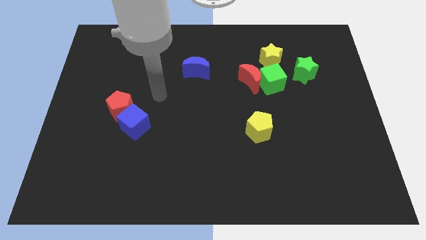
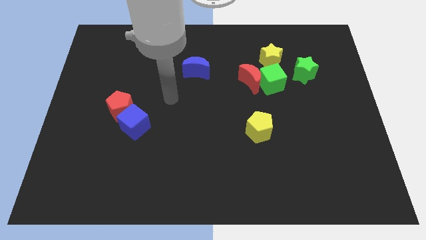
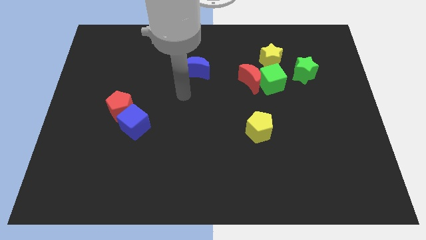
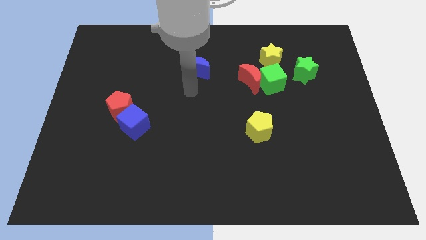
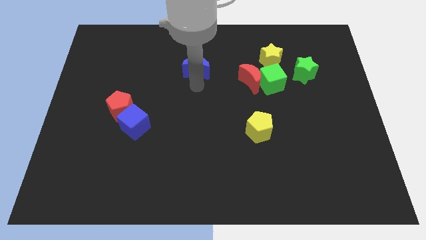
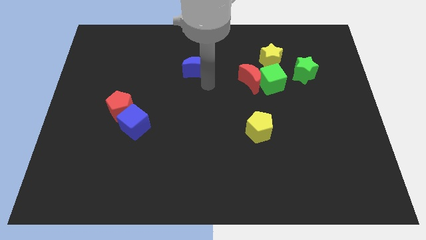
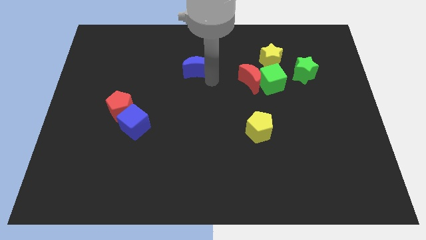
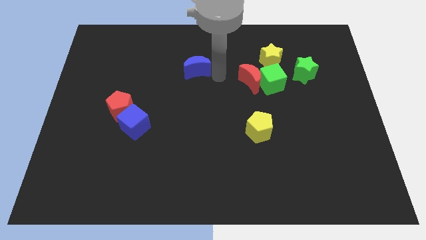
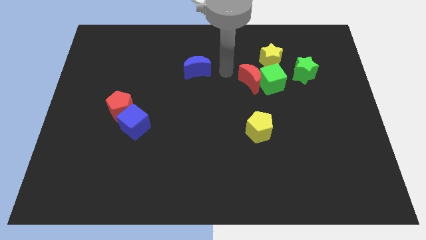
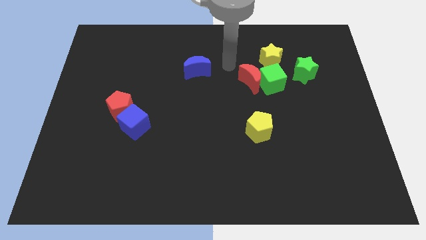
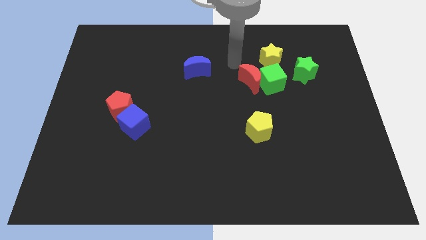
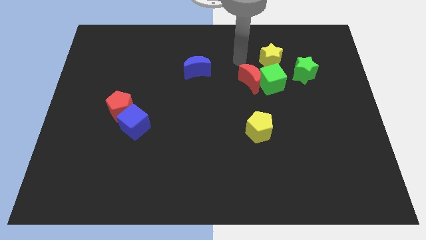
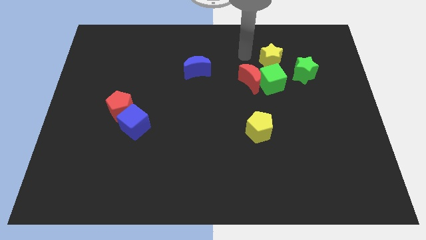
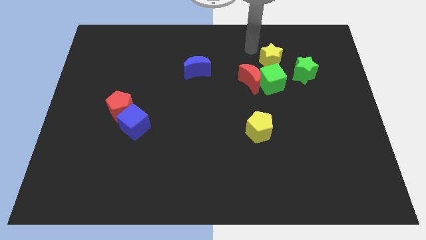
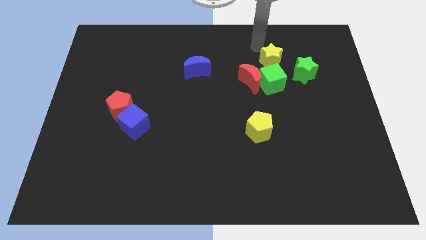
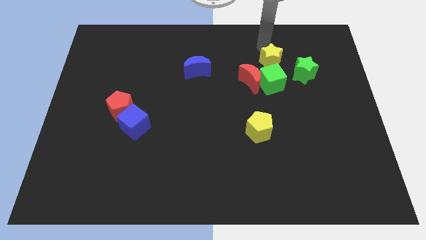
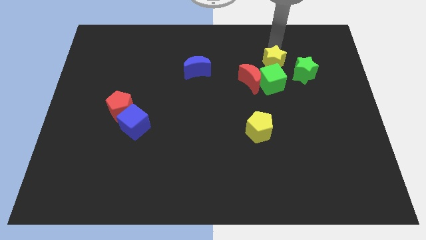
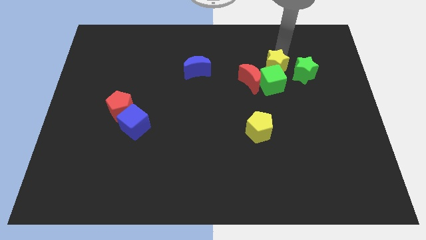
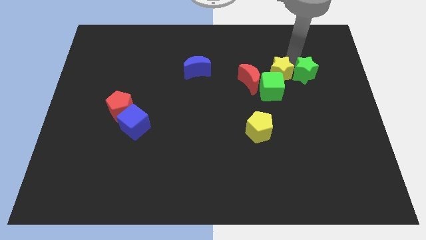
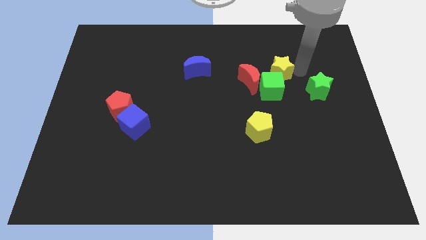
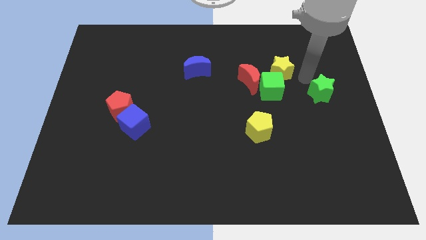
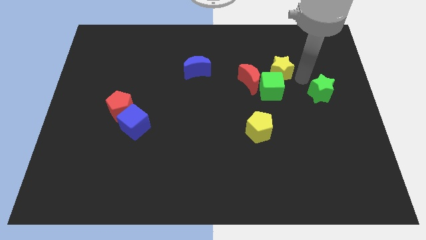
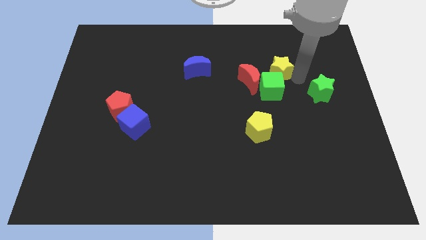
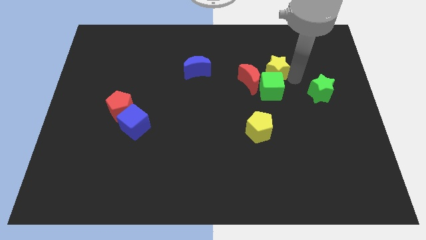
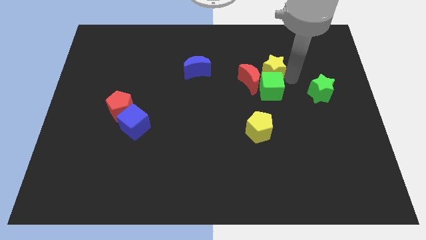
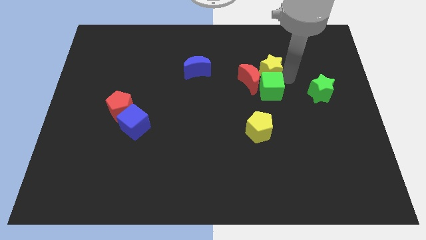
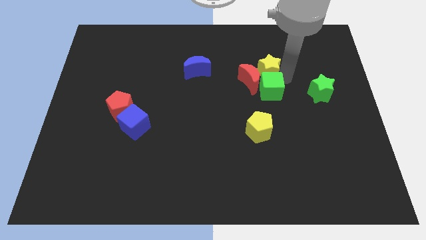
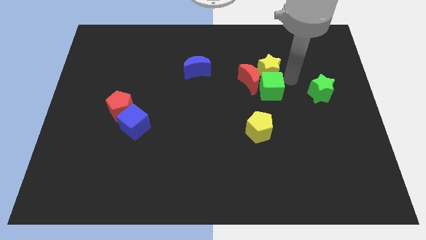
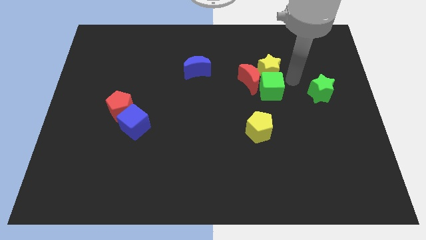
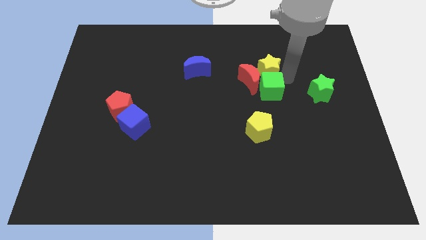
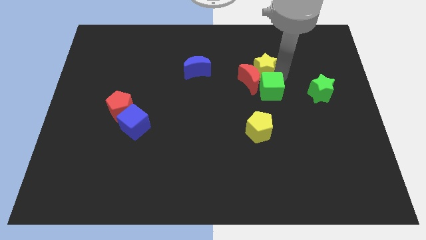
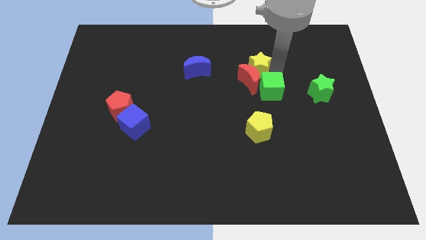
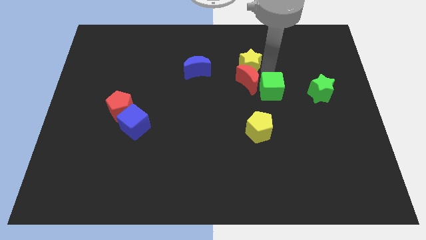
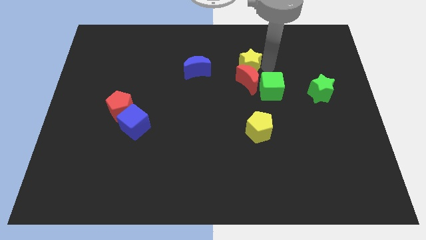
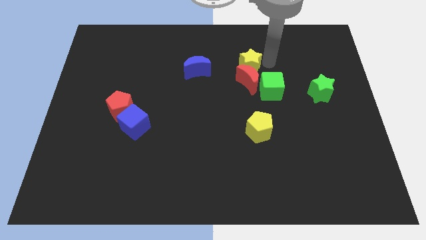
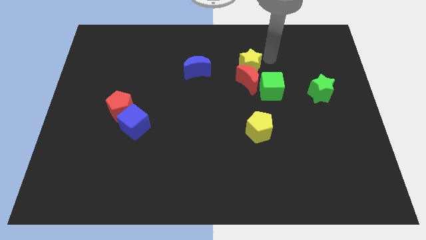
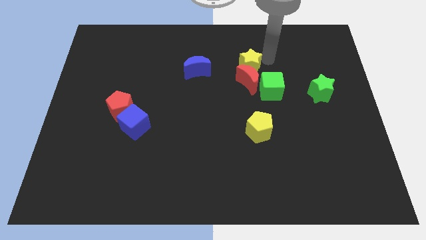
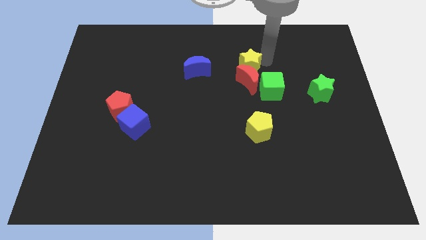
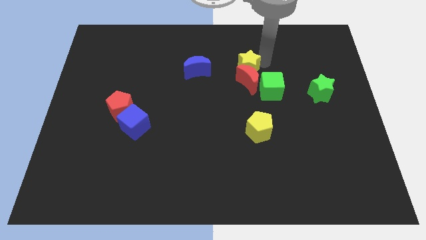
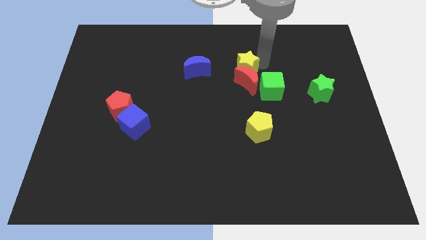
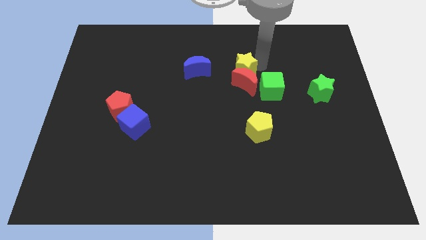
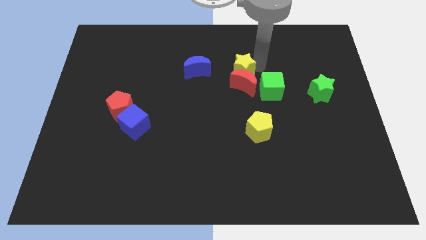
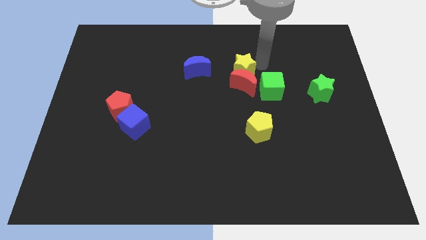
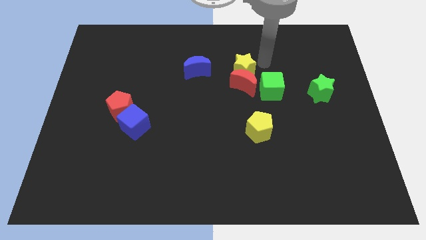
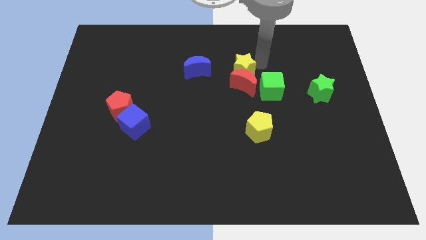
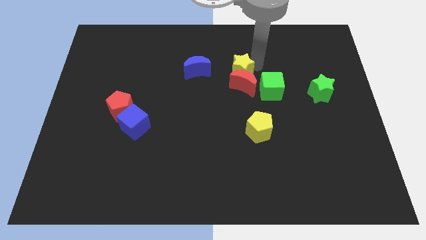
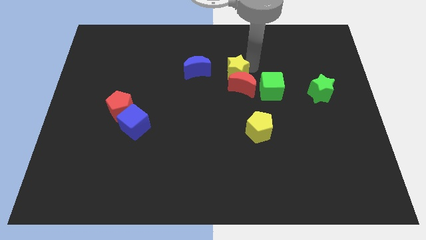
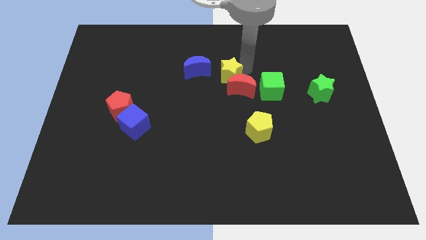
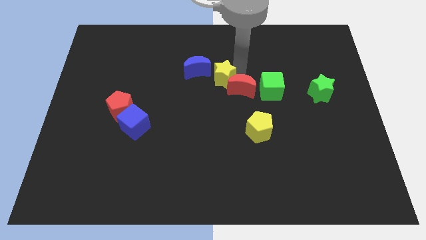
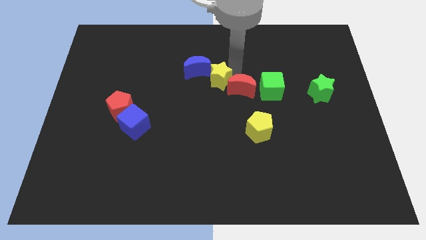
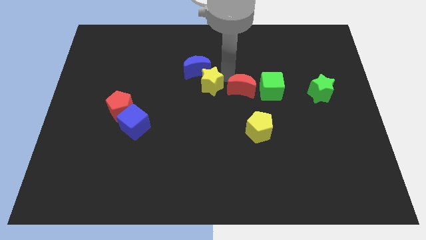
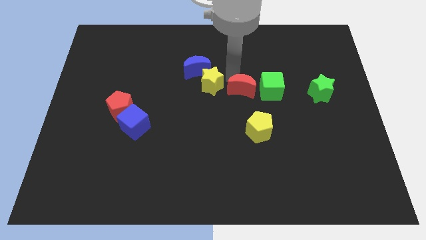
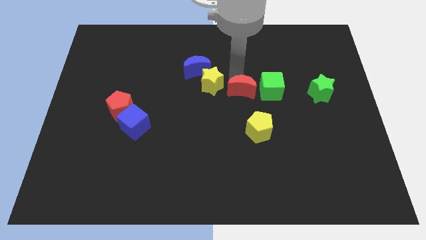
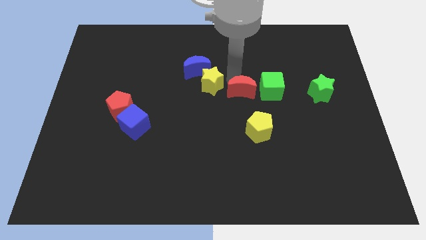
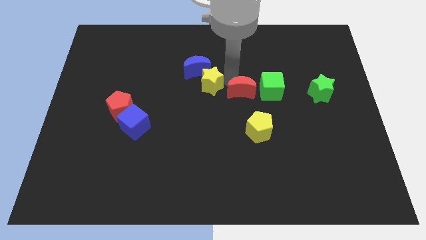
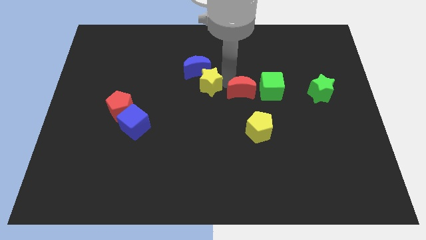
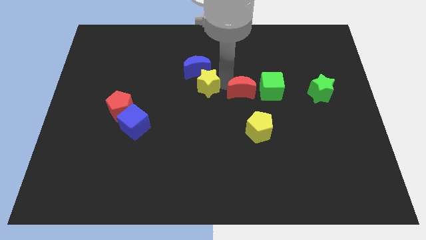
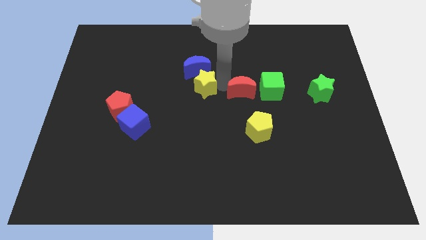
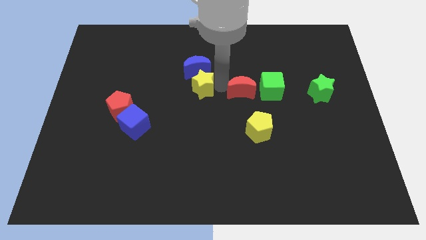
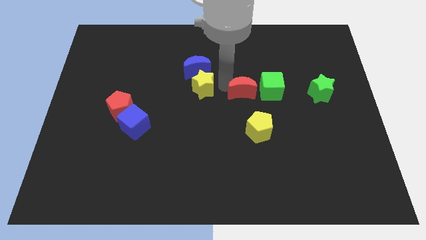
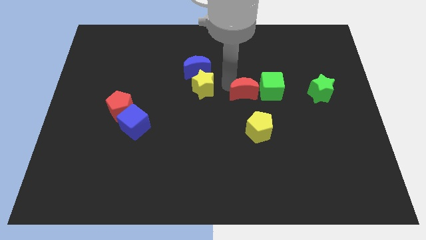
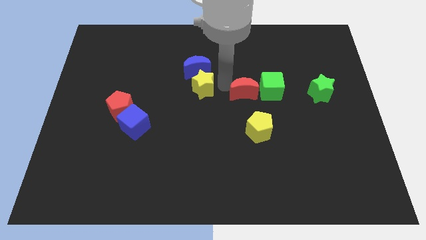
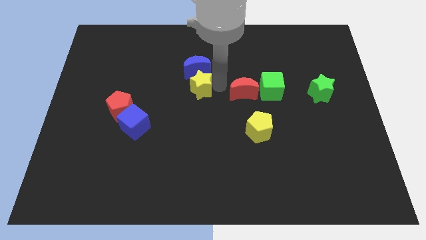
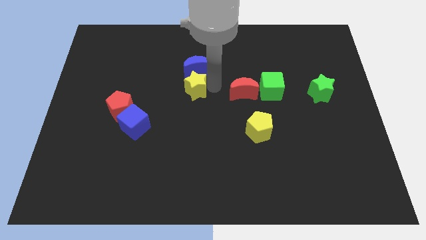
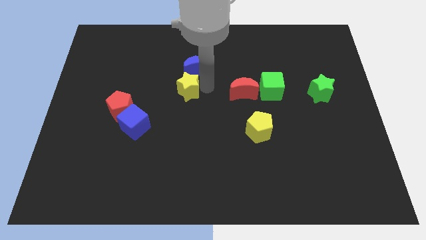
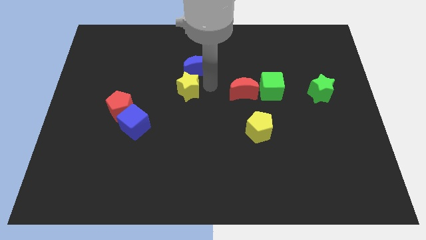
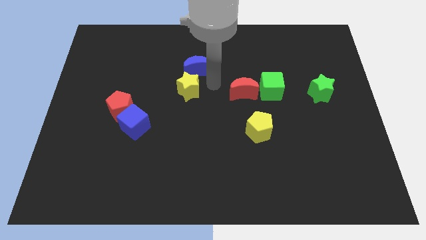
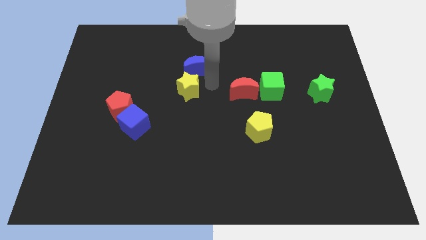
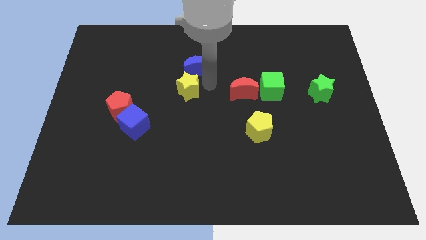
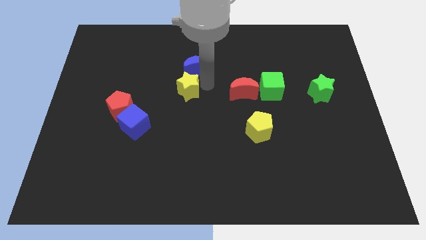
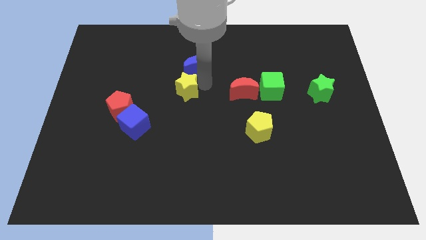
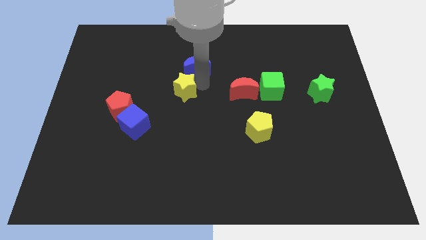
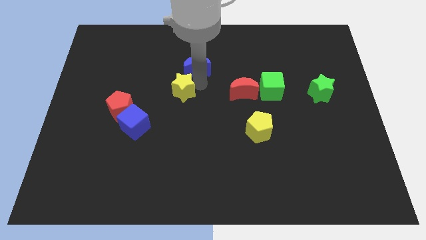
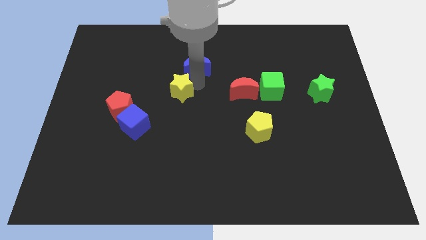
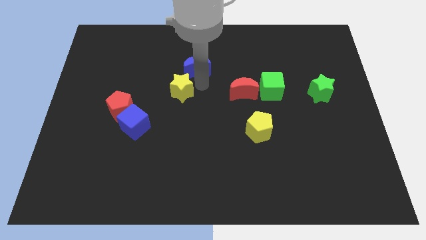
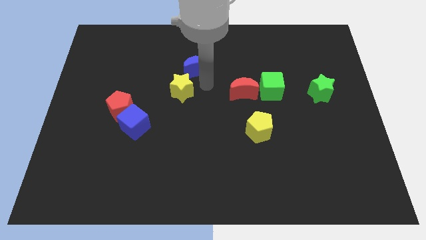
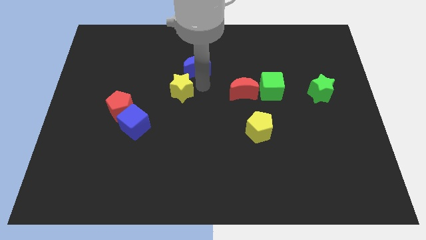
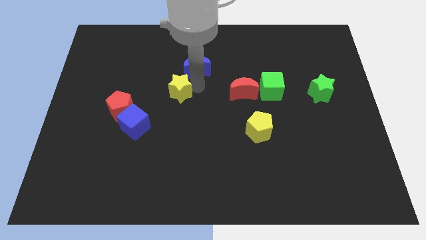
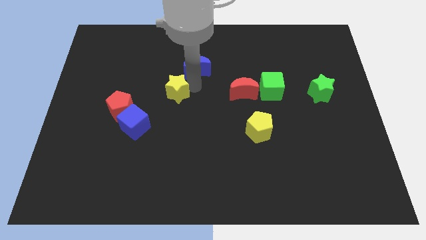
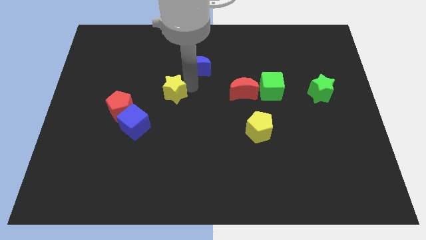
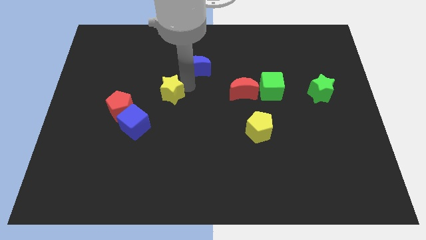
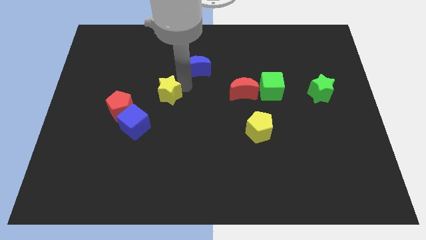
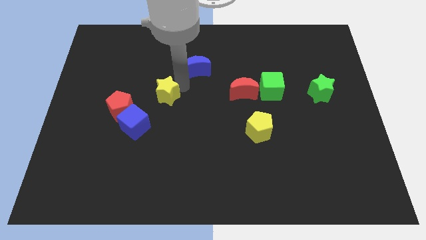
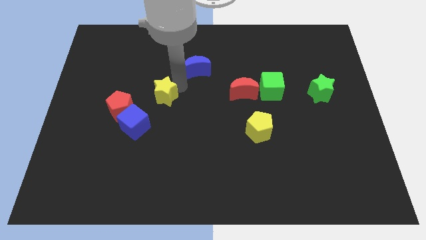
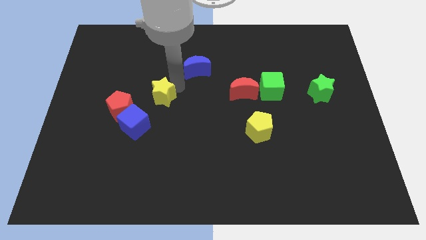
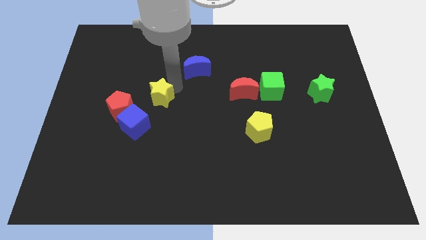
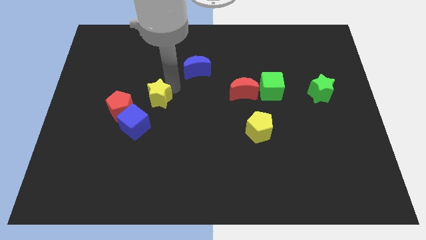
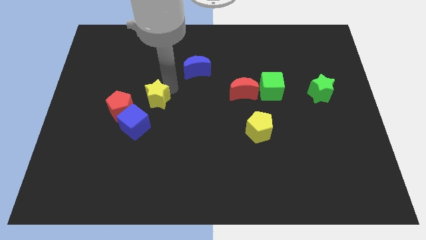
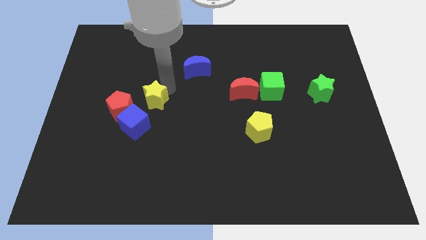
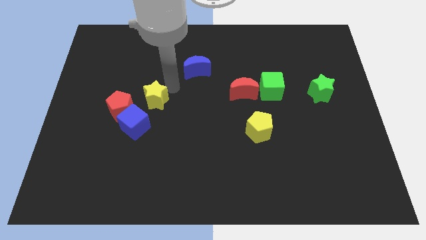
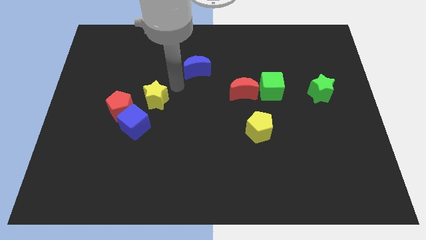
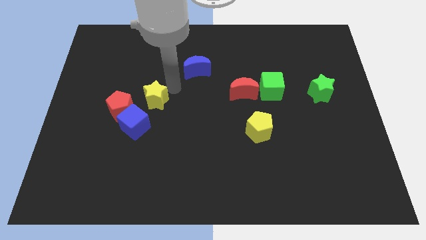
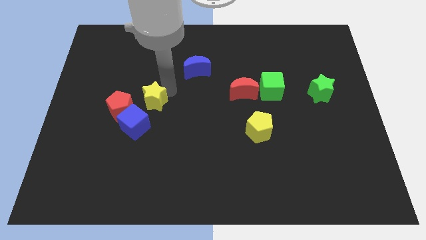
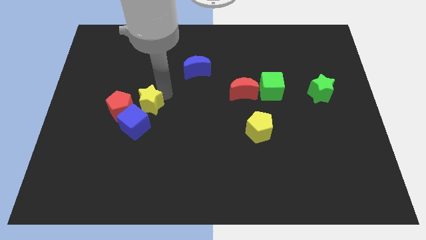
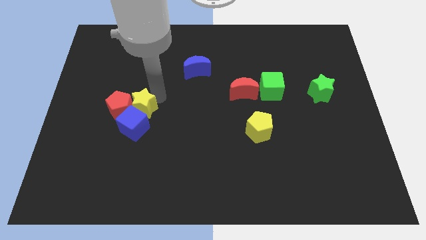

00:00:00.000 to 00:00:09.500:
put the yellow star to the blue cube
